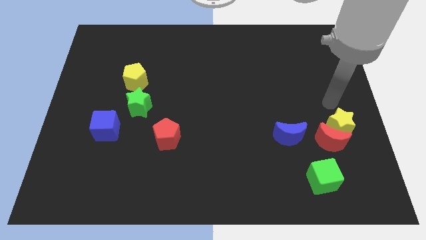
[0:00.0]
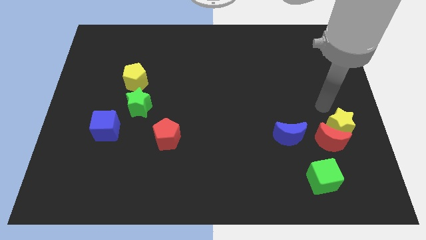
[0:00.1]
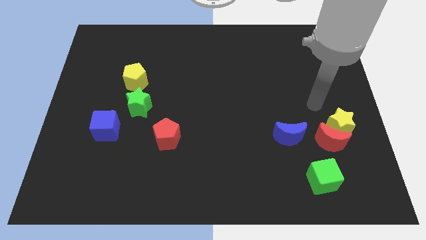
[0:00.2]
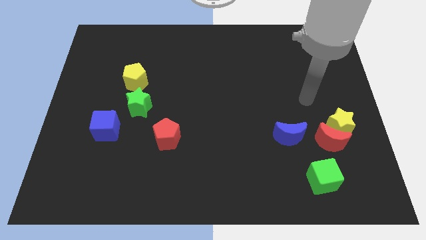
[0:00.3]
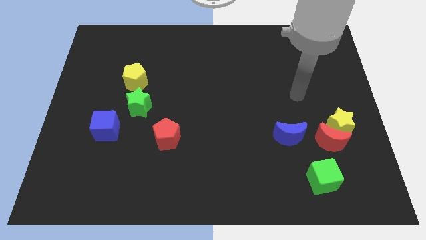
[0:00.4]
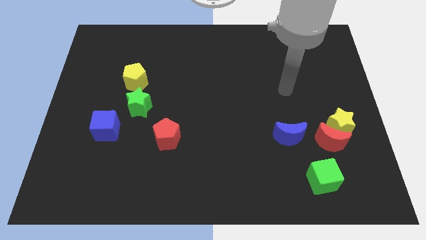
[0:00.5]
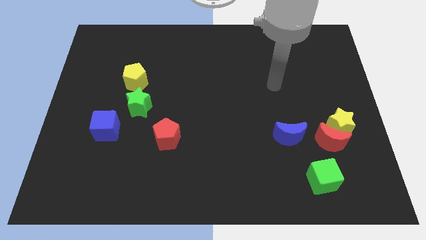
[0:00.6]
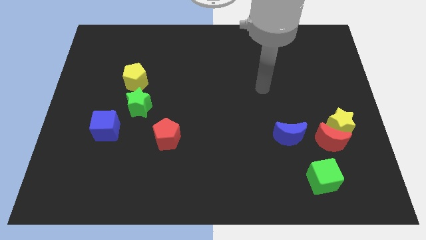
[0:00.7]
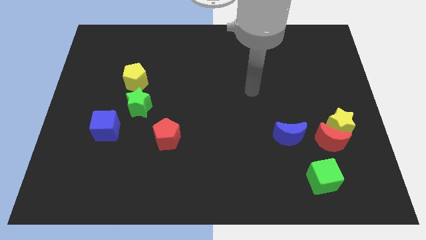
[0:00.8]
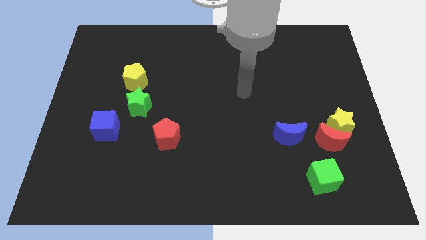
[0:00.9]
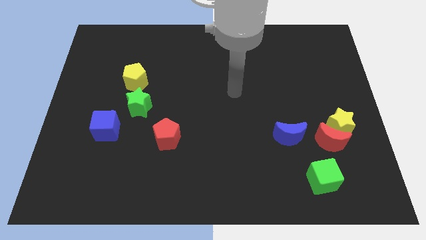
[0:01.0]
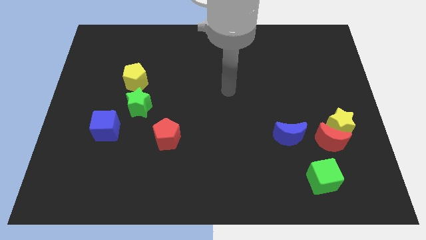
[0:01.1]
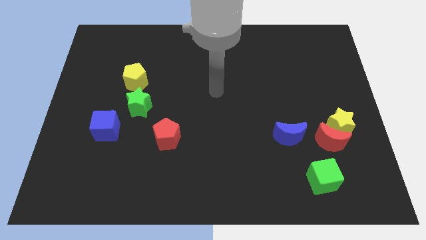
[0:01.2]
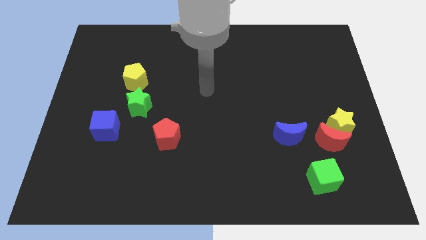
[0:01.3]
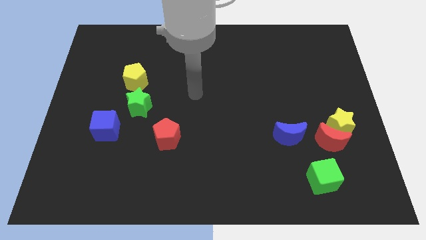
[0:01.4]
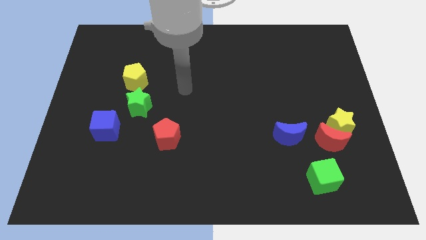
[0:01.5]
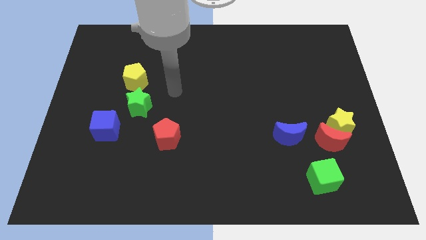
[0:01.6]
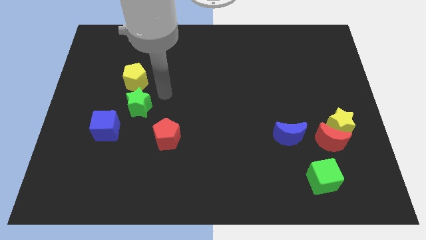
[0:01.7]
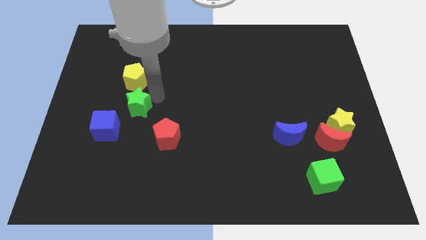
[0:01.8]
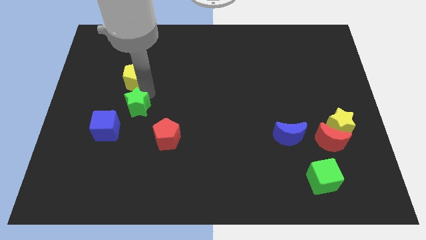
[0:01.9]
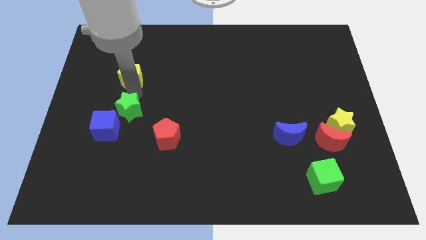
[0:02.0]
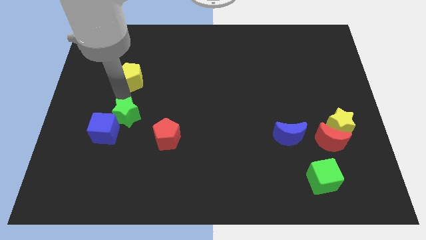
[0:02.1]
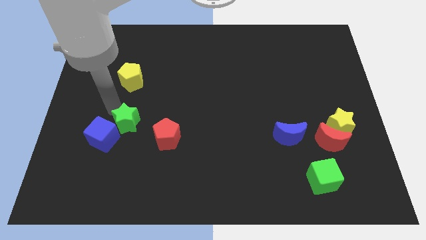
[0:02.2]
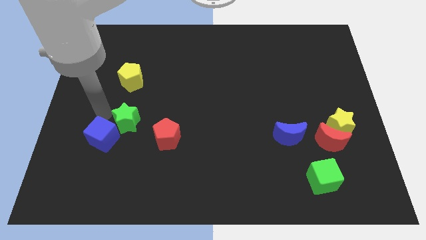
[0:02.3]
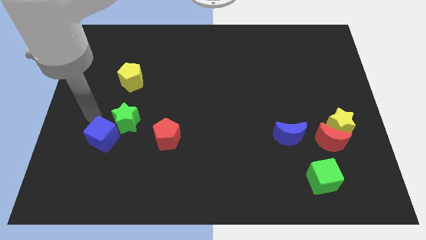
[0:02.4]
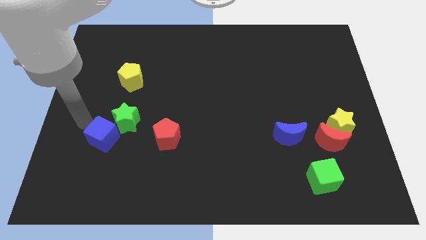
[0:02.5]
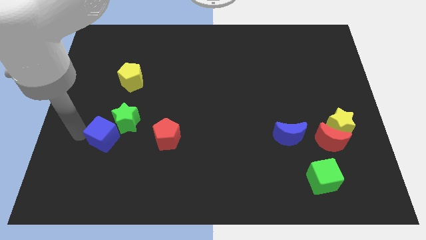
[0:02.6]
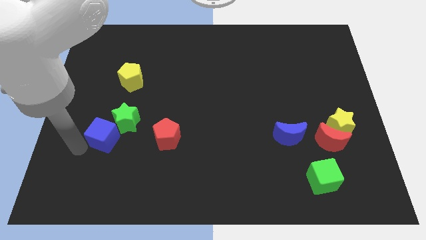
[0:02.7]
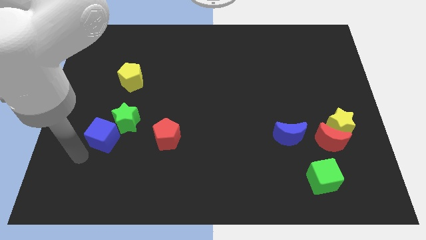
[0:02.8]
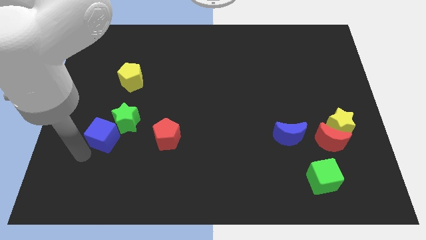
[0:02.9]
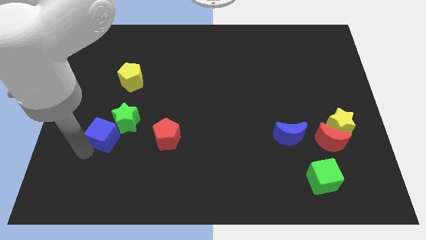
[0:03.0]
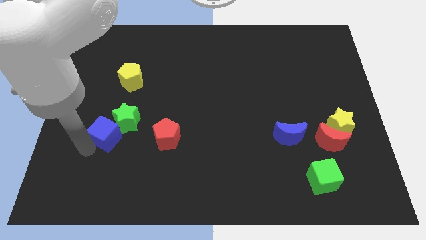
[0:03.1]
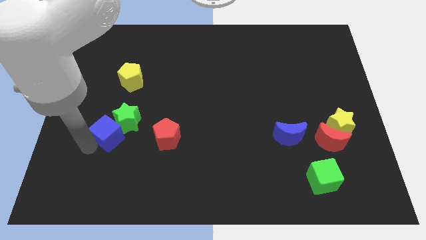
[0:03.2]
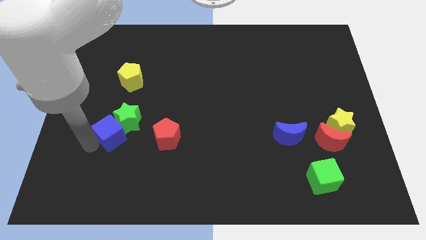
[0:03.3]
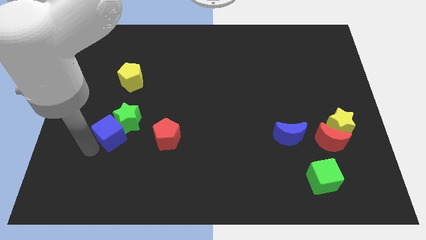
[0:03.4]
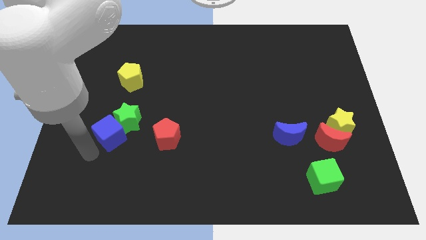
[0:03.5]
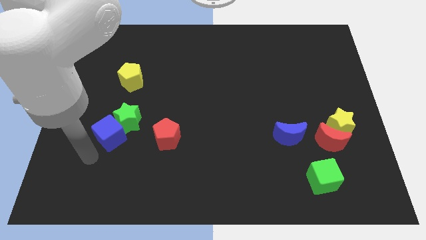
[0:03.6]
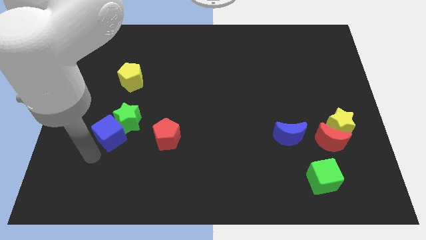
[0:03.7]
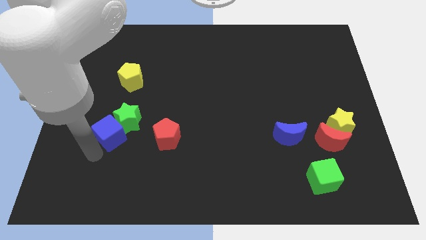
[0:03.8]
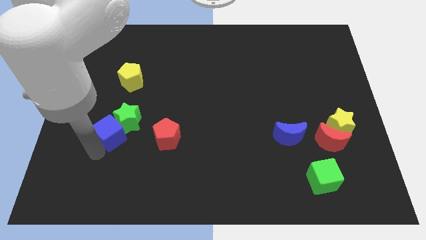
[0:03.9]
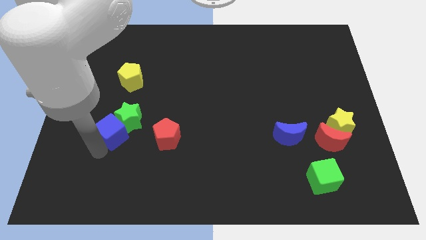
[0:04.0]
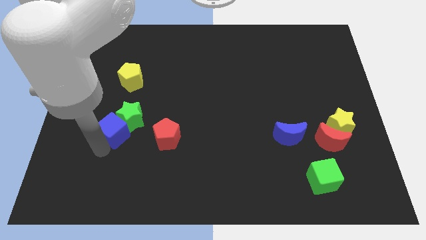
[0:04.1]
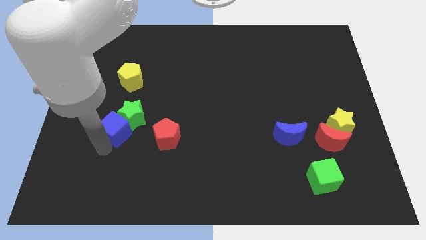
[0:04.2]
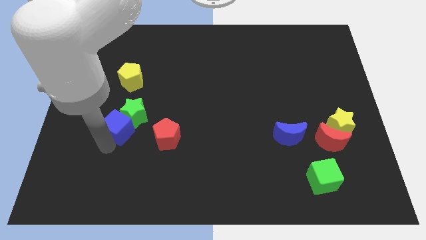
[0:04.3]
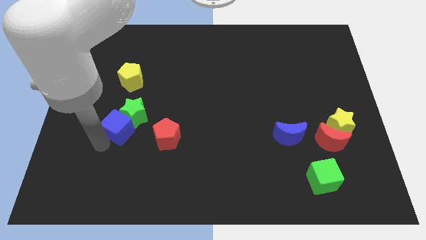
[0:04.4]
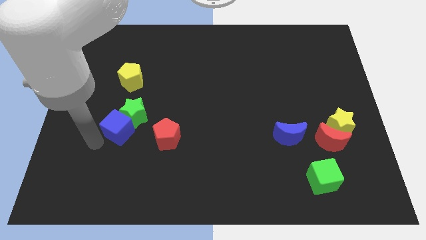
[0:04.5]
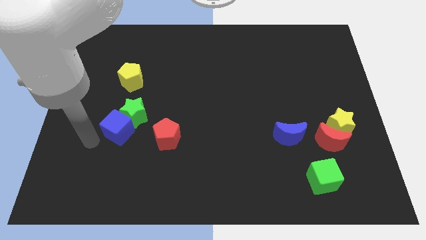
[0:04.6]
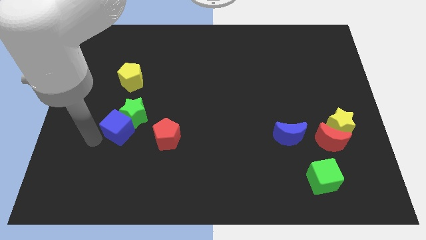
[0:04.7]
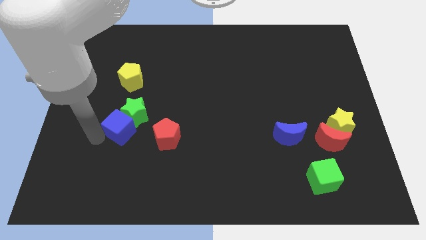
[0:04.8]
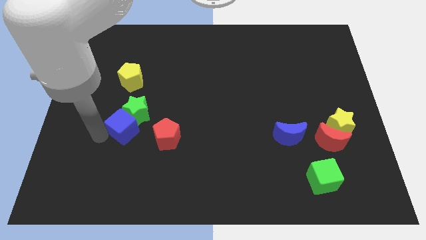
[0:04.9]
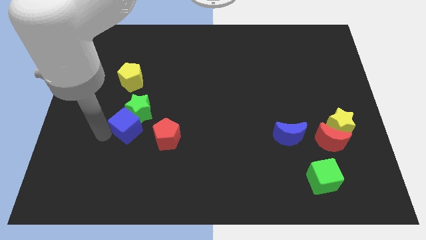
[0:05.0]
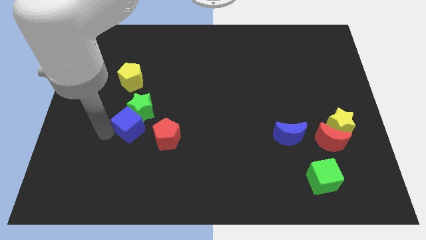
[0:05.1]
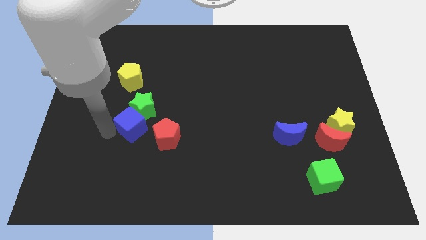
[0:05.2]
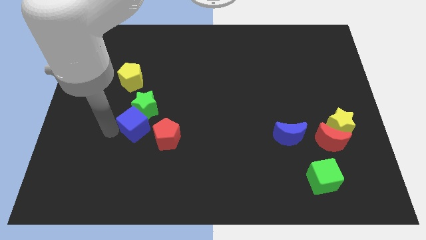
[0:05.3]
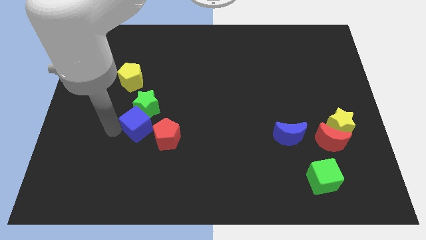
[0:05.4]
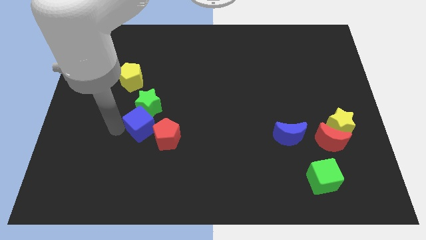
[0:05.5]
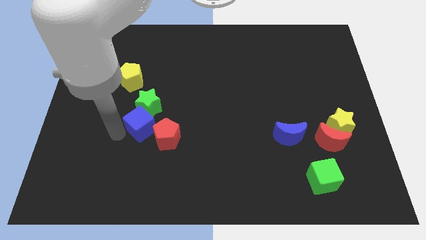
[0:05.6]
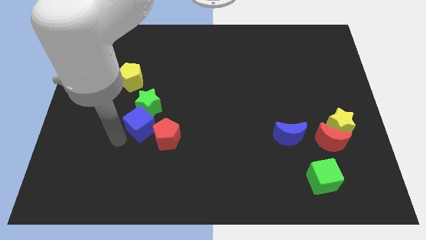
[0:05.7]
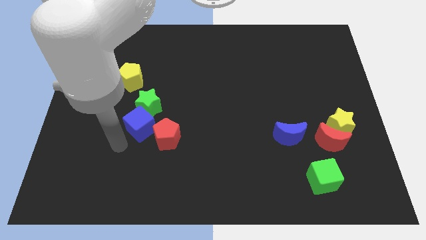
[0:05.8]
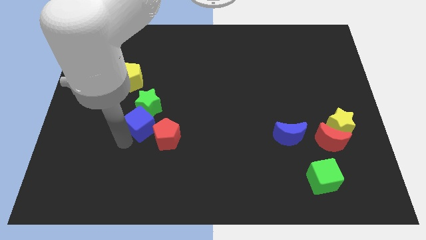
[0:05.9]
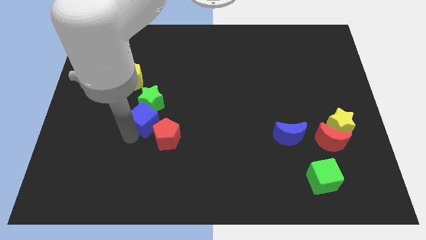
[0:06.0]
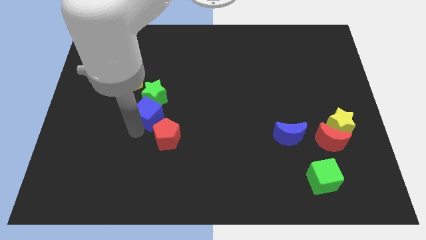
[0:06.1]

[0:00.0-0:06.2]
push the blue cube diagonally upwards and to the right a bit

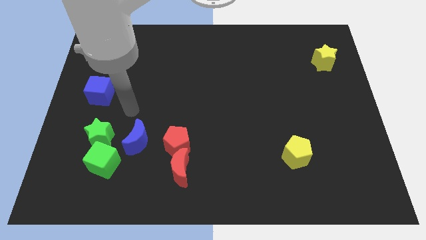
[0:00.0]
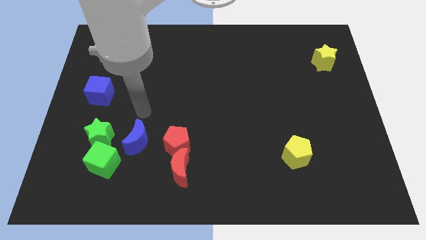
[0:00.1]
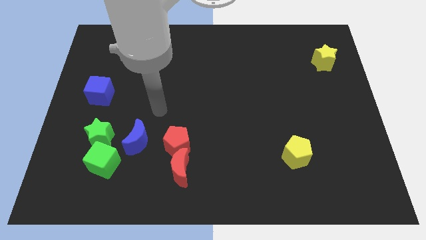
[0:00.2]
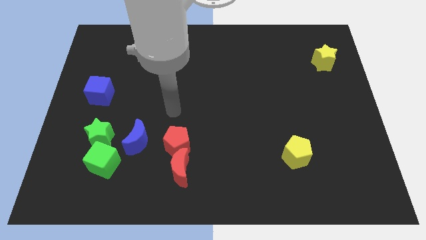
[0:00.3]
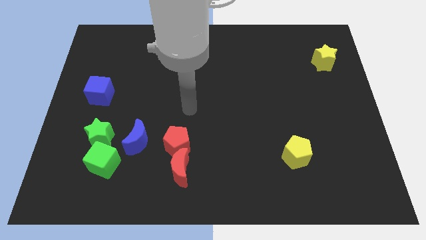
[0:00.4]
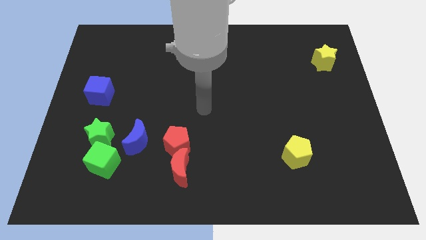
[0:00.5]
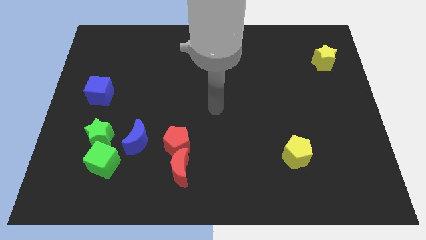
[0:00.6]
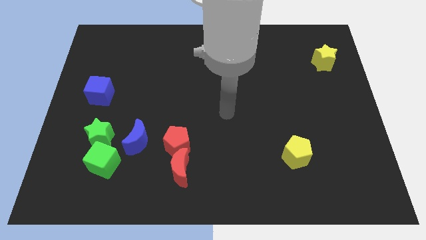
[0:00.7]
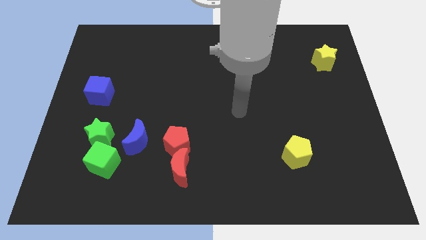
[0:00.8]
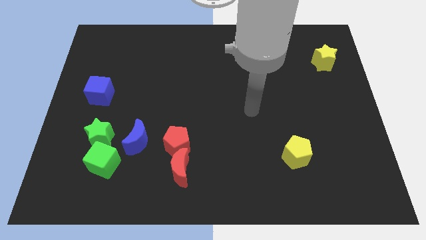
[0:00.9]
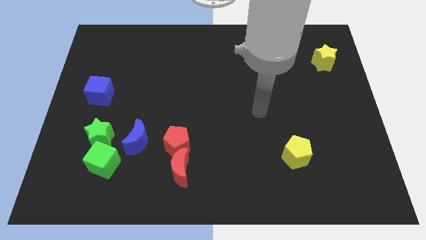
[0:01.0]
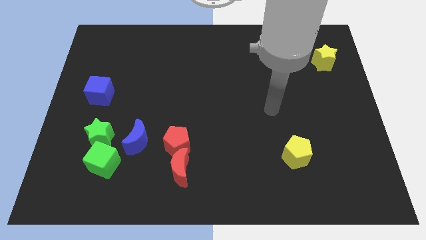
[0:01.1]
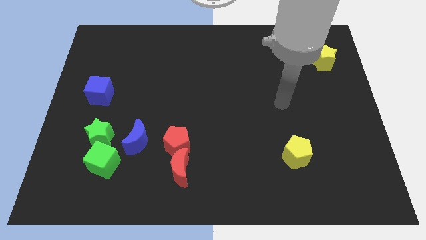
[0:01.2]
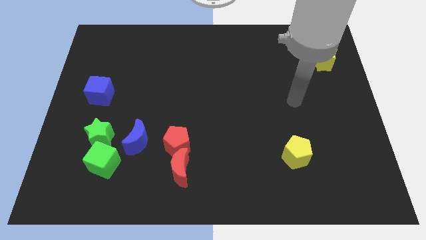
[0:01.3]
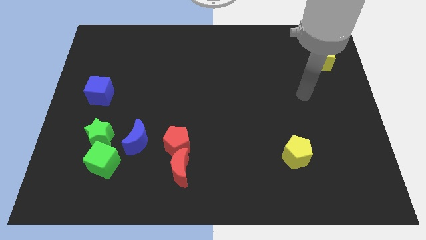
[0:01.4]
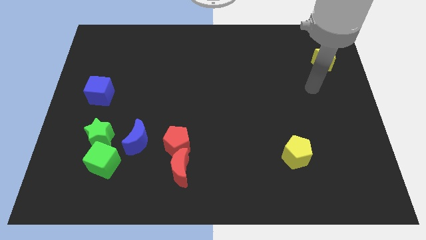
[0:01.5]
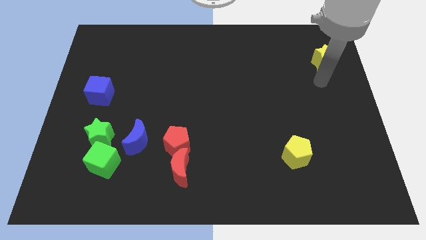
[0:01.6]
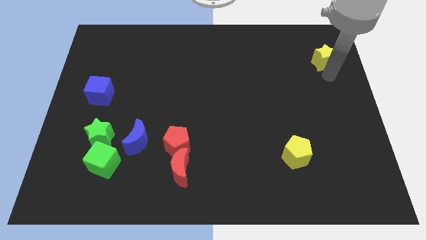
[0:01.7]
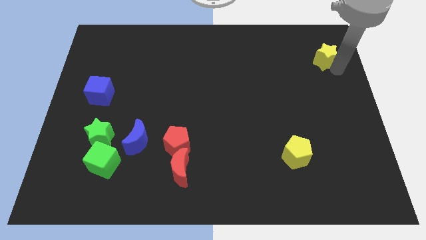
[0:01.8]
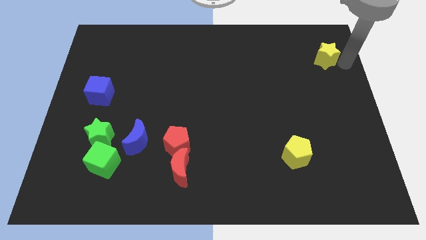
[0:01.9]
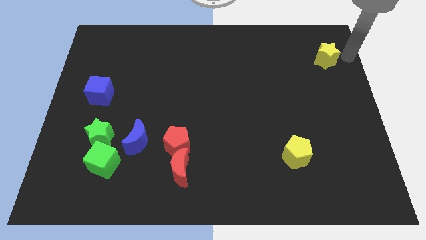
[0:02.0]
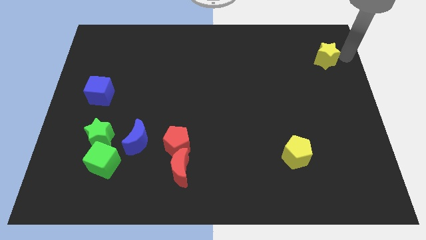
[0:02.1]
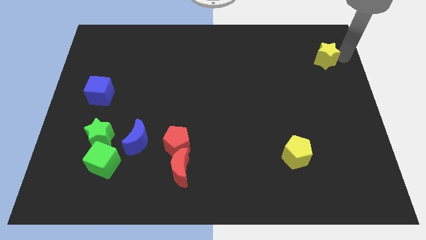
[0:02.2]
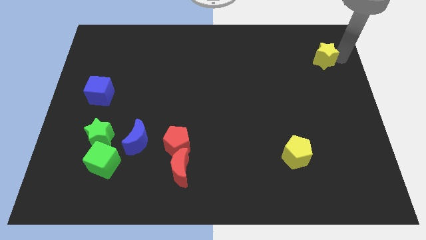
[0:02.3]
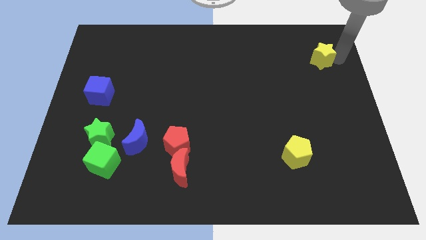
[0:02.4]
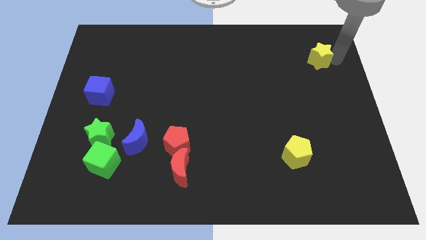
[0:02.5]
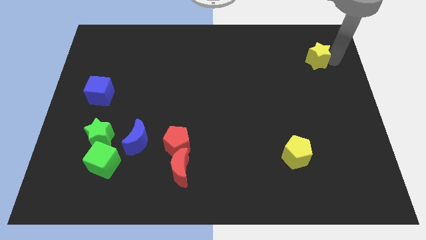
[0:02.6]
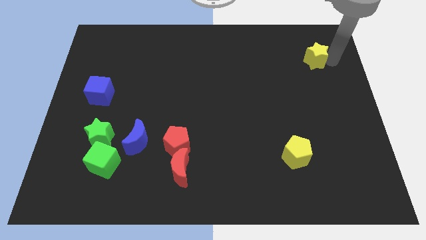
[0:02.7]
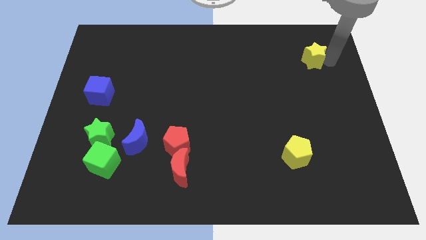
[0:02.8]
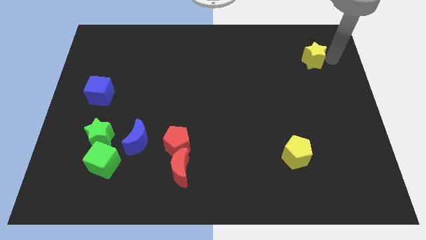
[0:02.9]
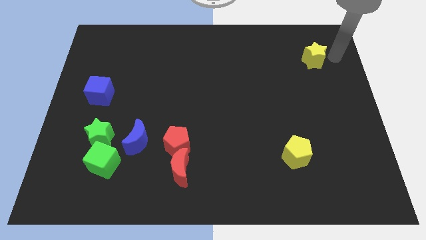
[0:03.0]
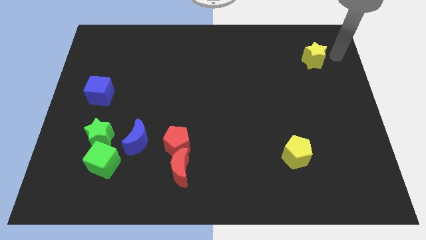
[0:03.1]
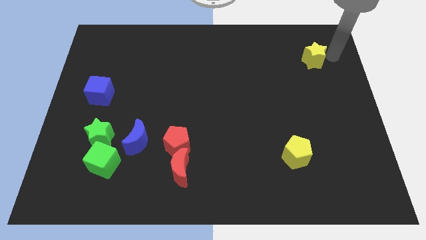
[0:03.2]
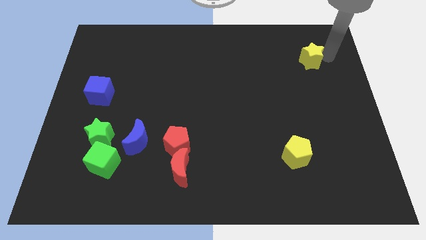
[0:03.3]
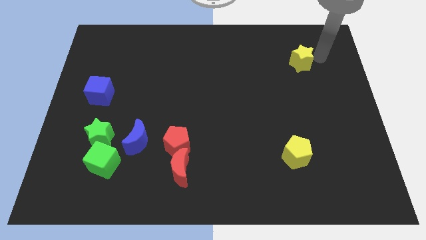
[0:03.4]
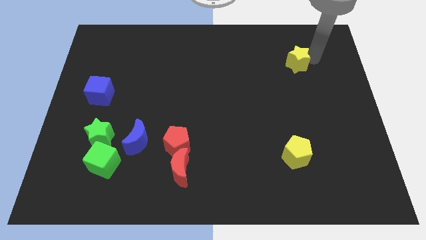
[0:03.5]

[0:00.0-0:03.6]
move the yellow star to the left slightly
